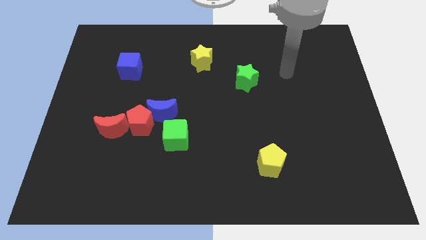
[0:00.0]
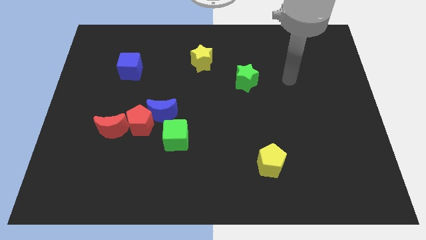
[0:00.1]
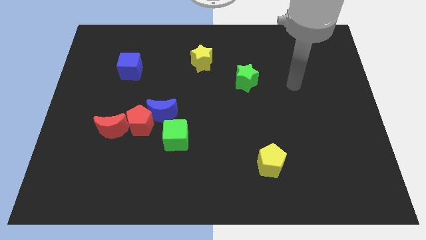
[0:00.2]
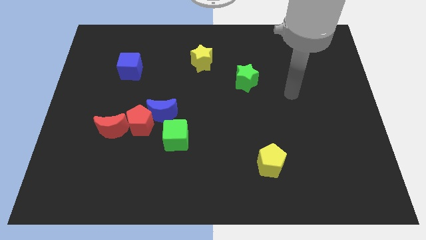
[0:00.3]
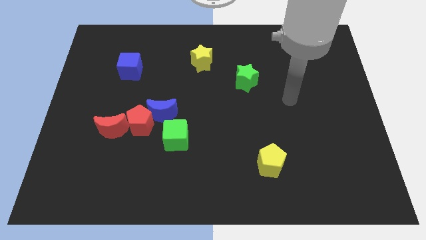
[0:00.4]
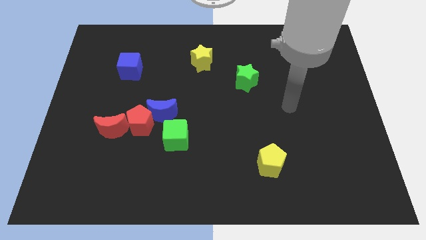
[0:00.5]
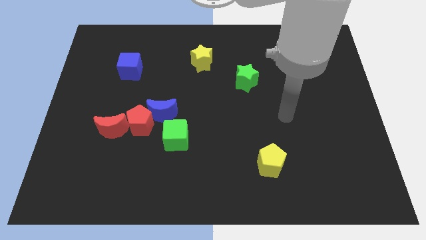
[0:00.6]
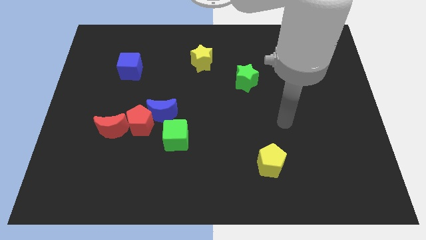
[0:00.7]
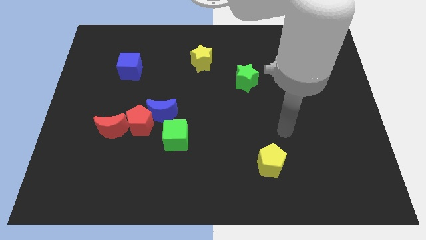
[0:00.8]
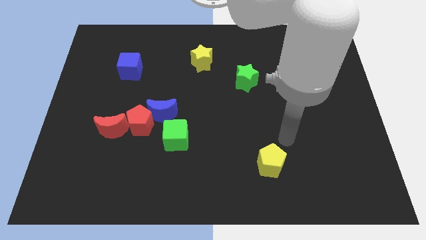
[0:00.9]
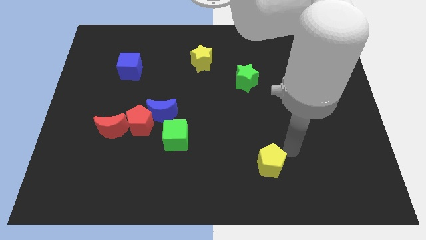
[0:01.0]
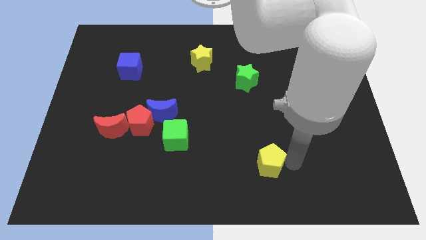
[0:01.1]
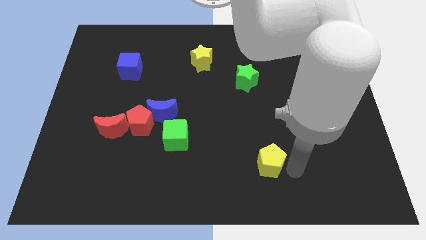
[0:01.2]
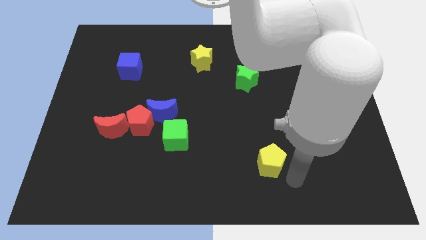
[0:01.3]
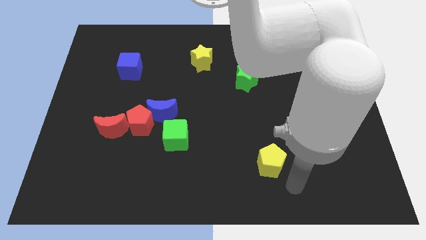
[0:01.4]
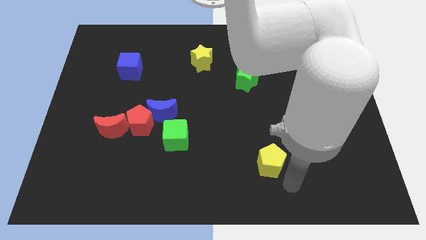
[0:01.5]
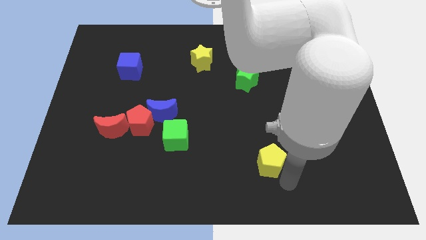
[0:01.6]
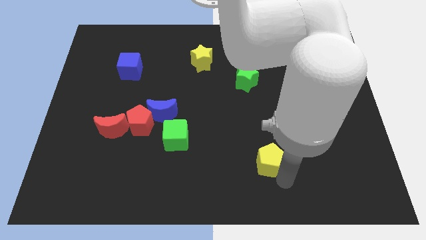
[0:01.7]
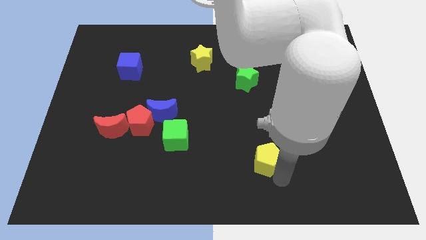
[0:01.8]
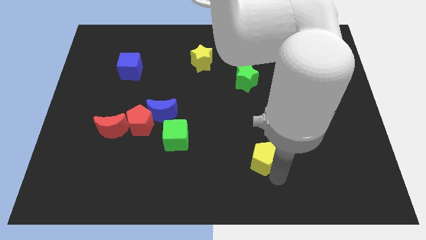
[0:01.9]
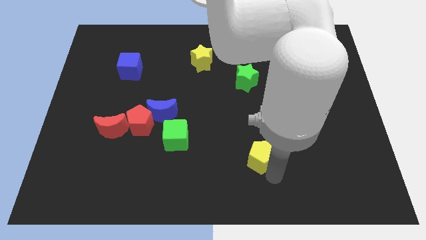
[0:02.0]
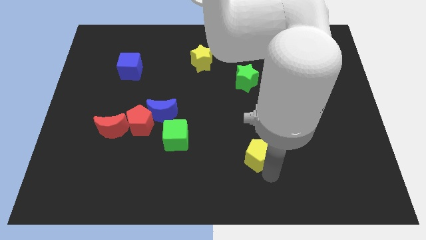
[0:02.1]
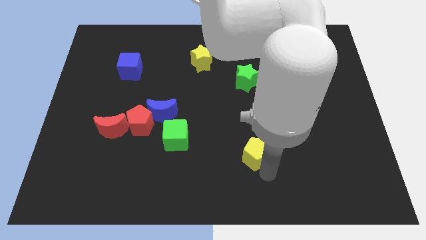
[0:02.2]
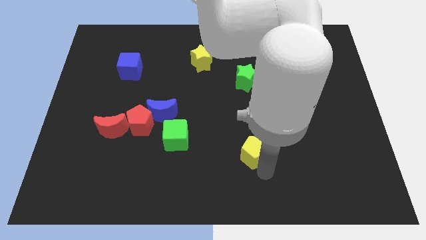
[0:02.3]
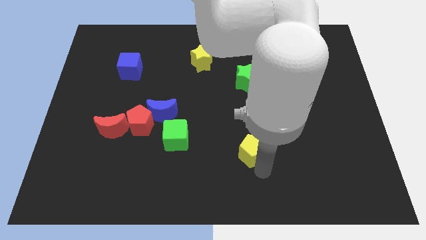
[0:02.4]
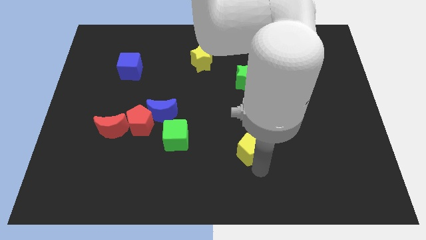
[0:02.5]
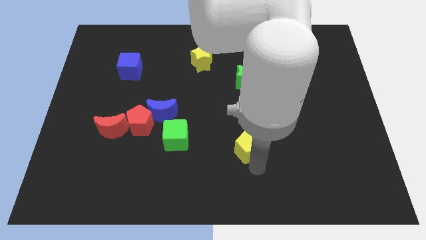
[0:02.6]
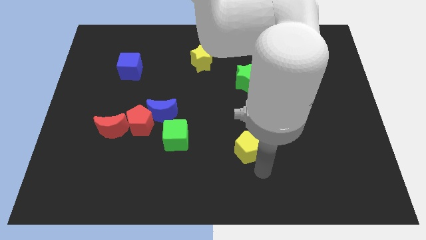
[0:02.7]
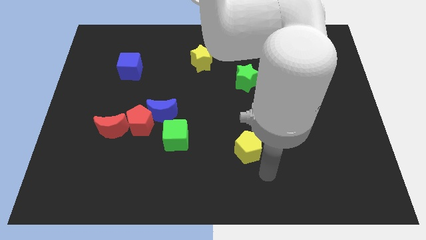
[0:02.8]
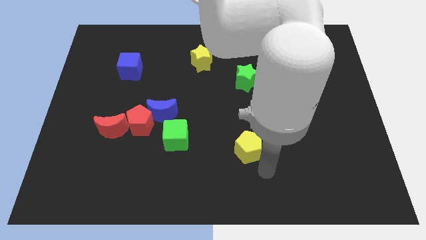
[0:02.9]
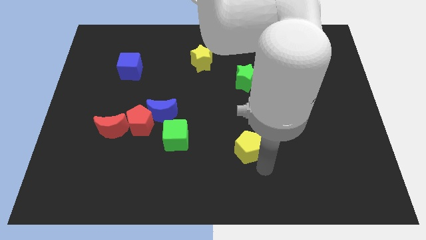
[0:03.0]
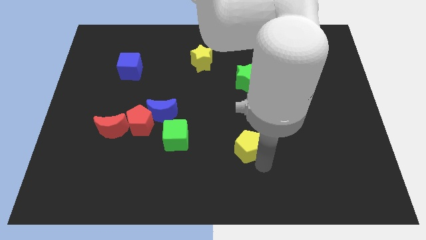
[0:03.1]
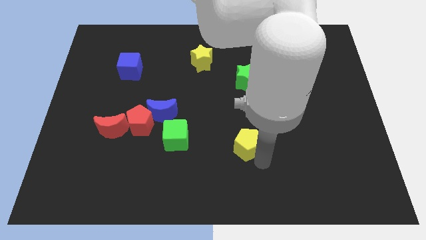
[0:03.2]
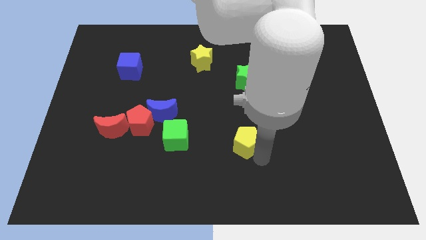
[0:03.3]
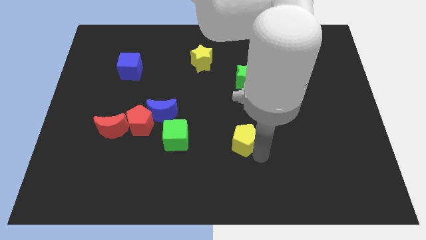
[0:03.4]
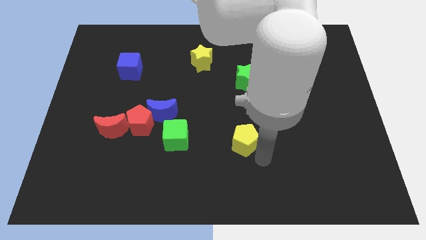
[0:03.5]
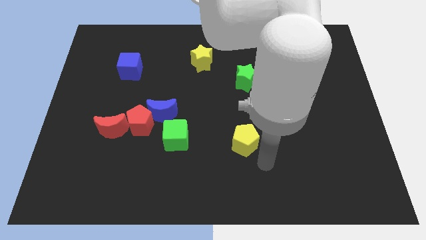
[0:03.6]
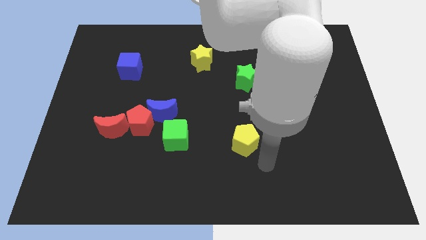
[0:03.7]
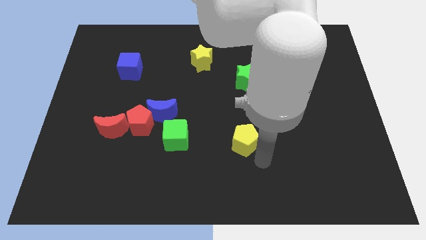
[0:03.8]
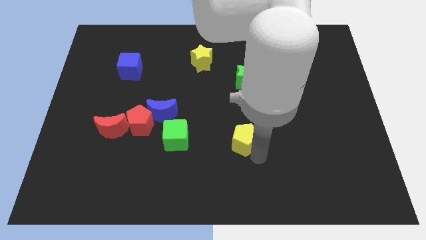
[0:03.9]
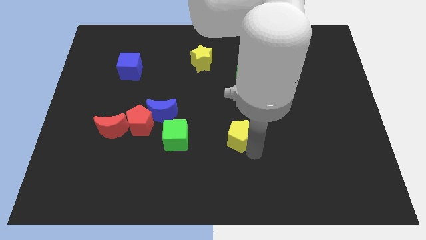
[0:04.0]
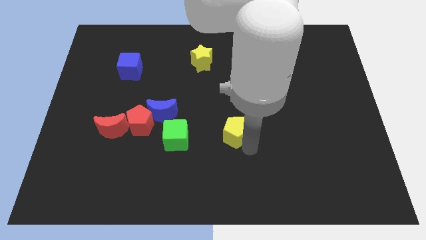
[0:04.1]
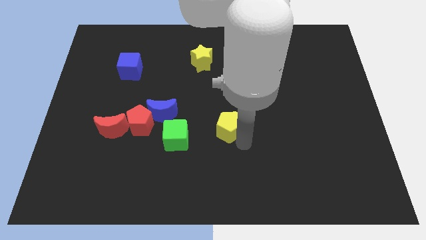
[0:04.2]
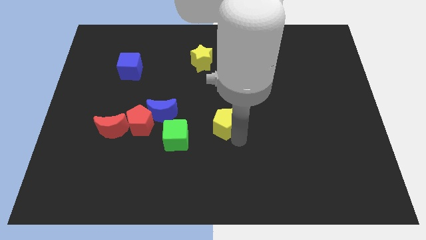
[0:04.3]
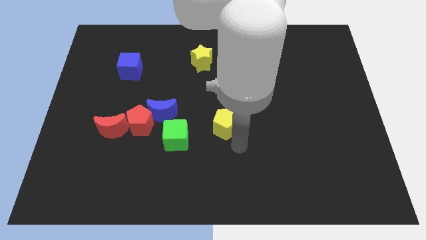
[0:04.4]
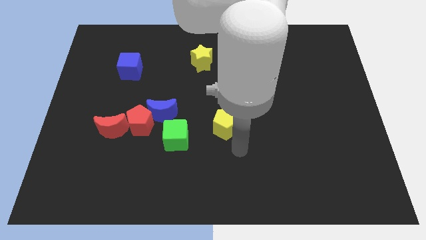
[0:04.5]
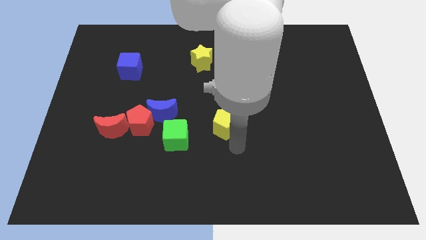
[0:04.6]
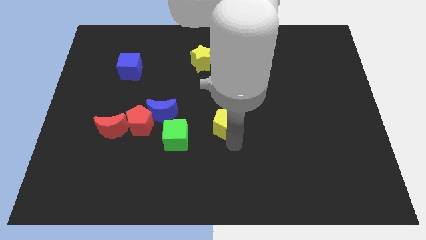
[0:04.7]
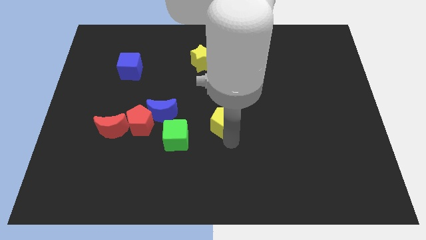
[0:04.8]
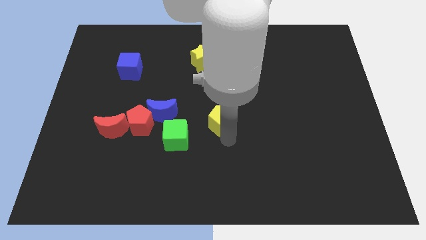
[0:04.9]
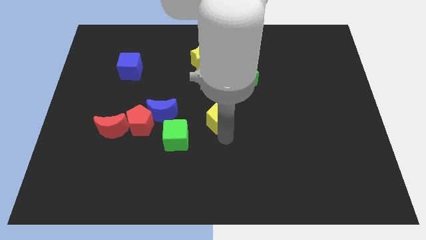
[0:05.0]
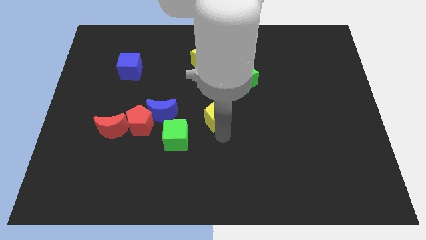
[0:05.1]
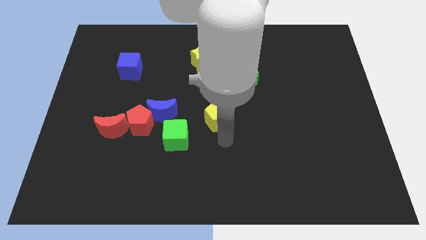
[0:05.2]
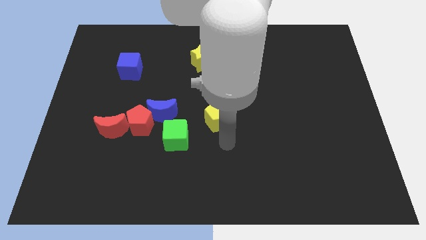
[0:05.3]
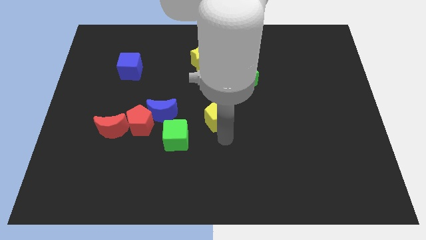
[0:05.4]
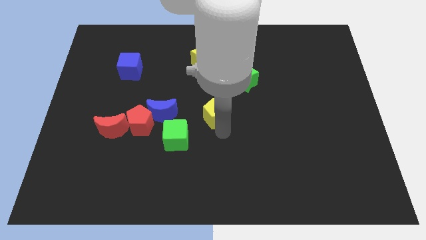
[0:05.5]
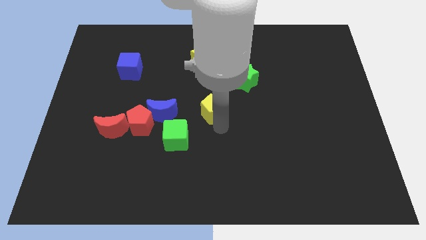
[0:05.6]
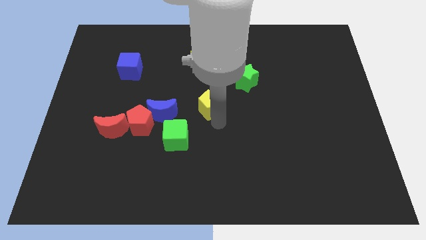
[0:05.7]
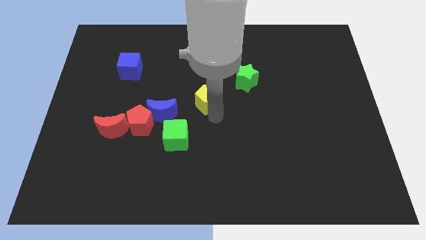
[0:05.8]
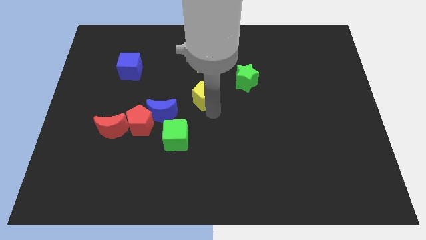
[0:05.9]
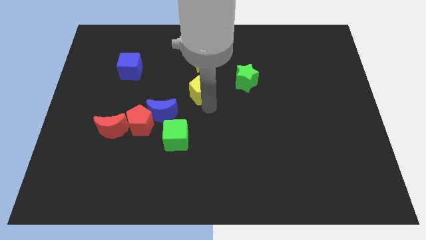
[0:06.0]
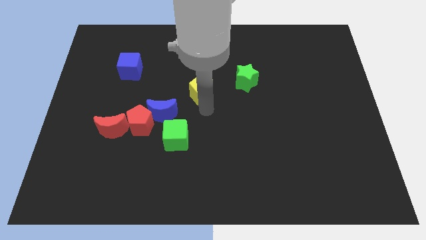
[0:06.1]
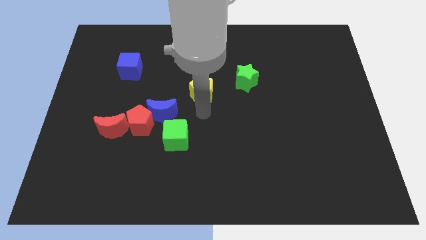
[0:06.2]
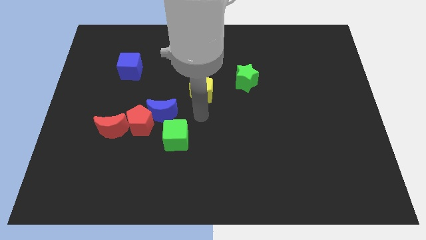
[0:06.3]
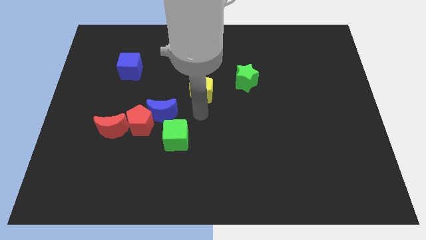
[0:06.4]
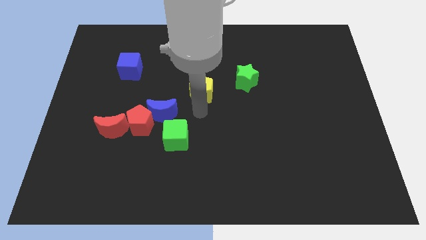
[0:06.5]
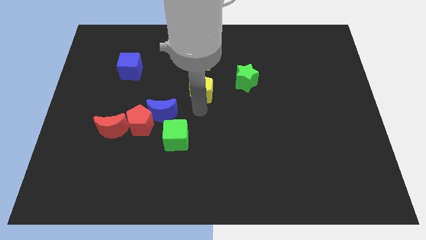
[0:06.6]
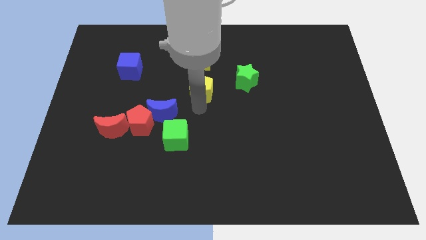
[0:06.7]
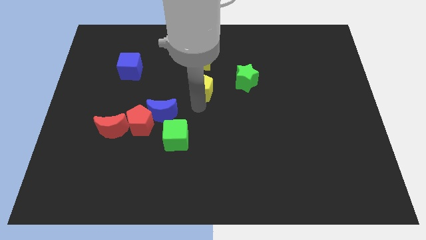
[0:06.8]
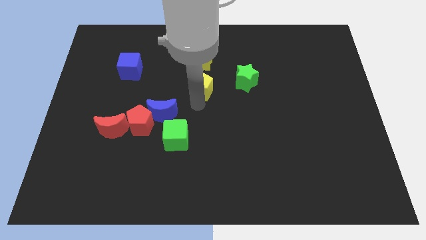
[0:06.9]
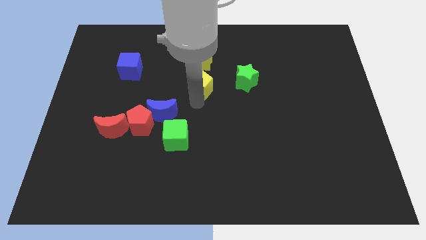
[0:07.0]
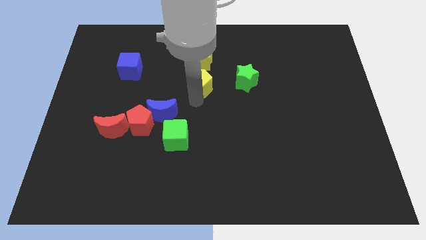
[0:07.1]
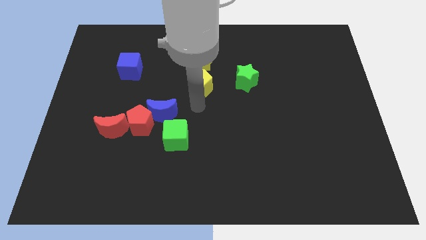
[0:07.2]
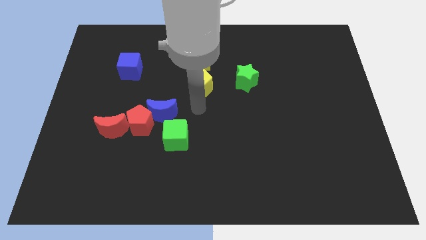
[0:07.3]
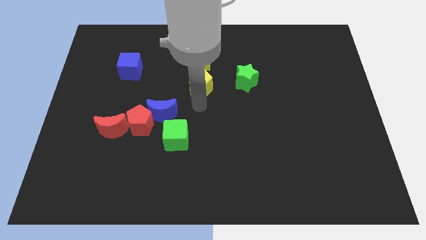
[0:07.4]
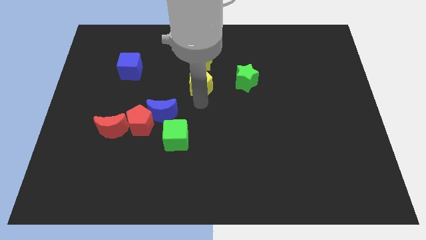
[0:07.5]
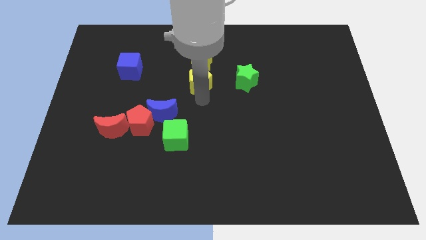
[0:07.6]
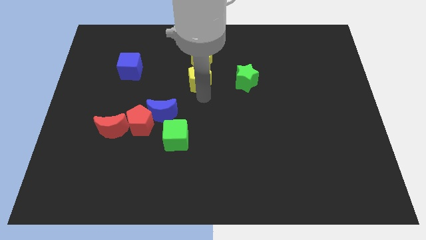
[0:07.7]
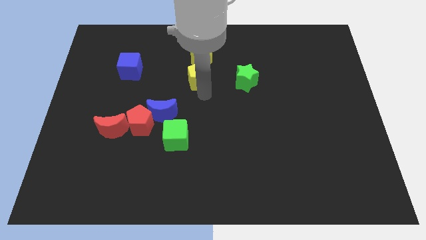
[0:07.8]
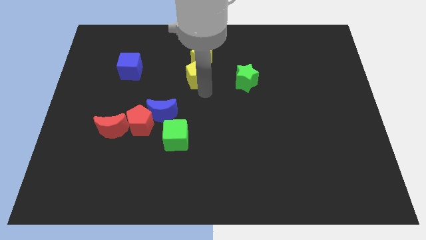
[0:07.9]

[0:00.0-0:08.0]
move the yellow pentagon to the yellow star
